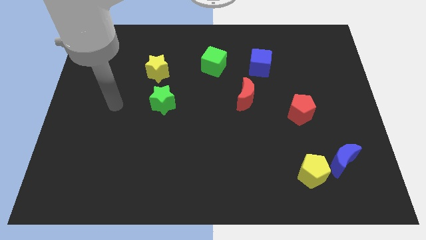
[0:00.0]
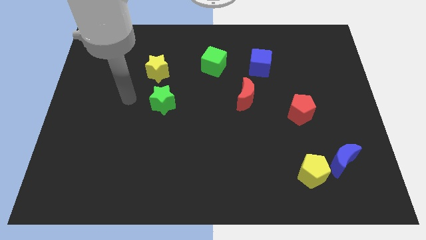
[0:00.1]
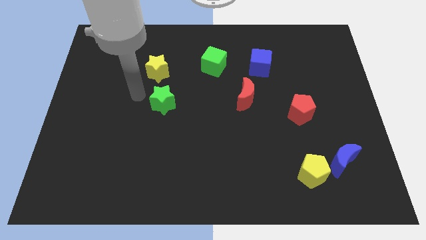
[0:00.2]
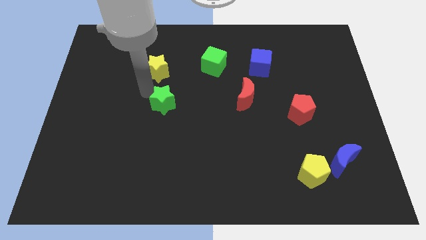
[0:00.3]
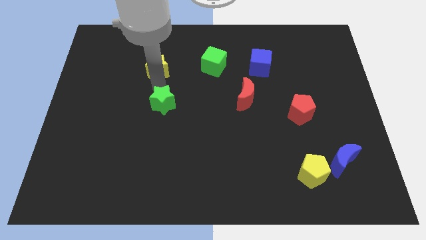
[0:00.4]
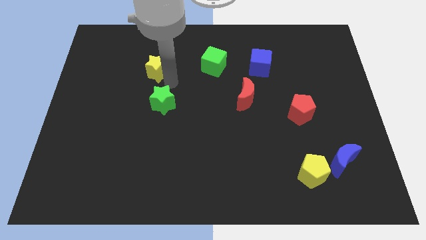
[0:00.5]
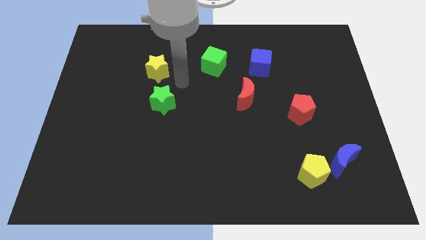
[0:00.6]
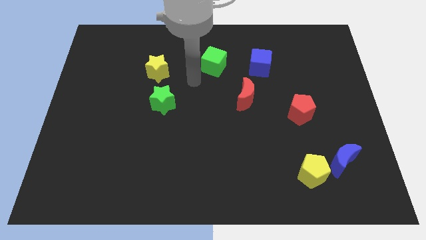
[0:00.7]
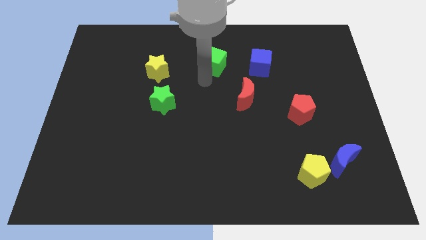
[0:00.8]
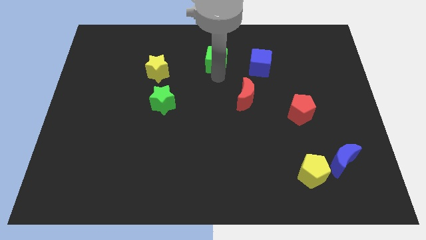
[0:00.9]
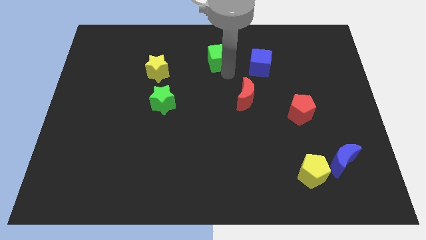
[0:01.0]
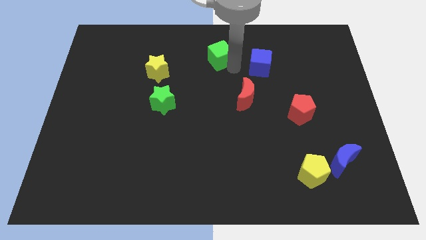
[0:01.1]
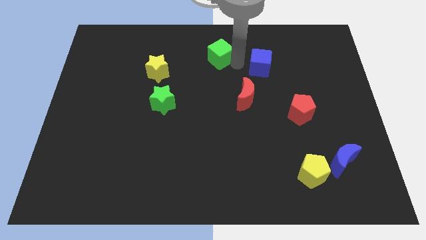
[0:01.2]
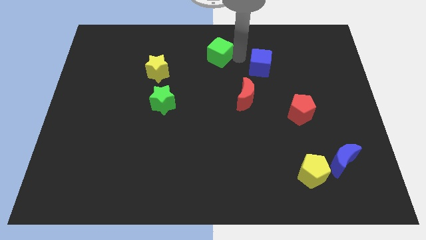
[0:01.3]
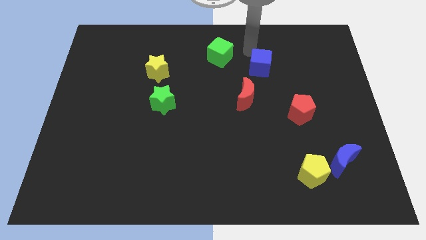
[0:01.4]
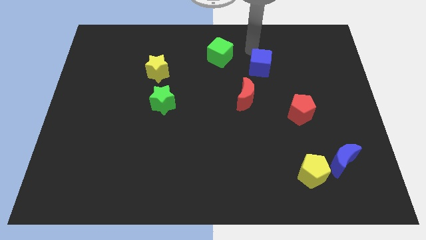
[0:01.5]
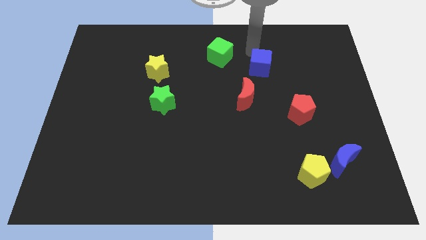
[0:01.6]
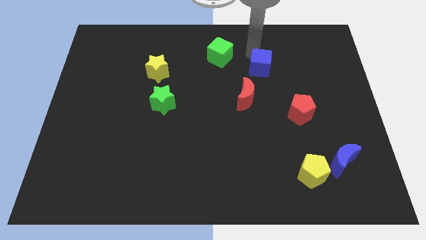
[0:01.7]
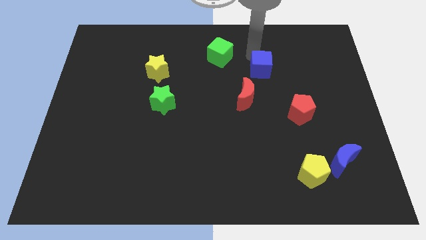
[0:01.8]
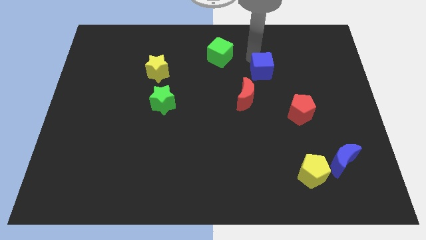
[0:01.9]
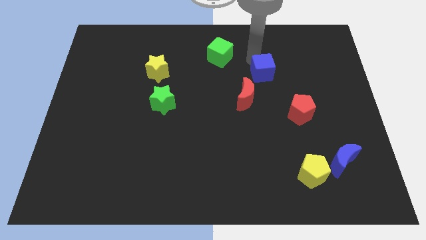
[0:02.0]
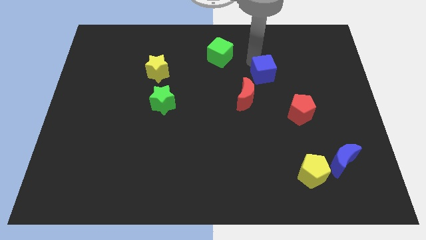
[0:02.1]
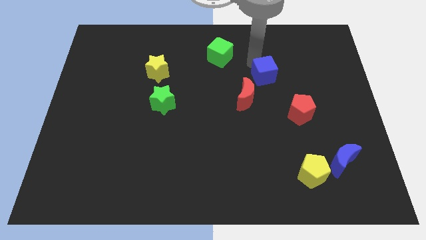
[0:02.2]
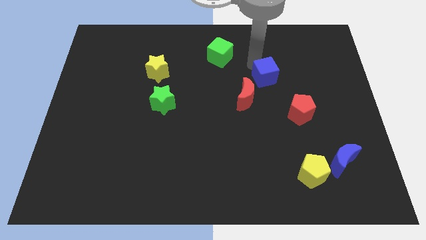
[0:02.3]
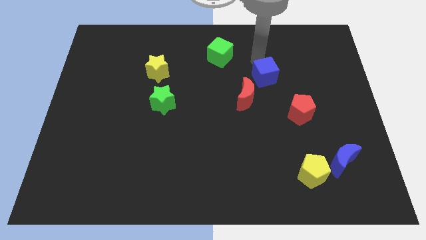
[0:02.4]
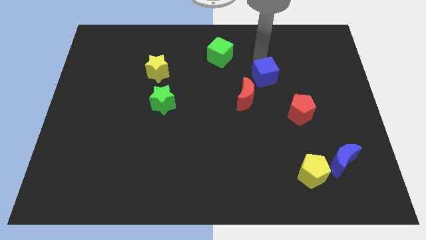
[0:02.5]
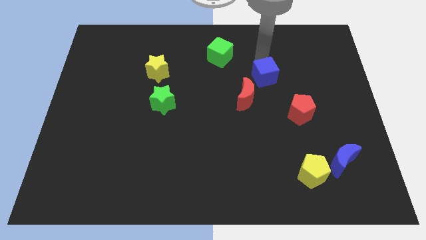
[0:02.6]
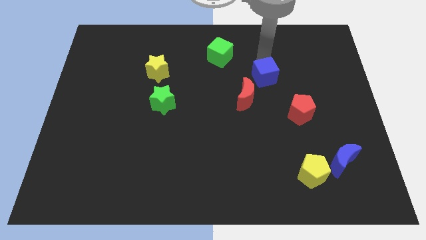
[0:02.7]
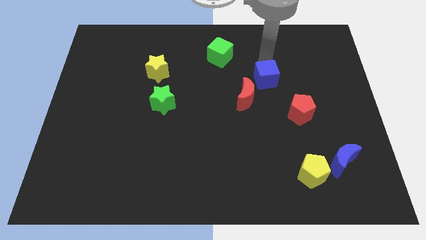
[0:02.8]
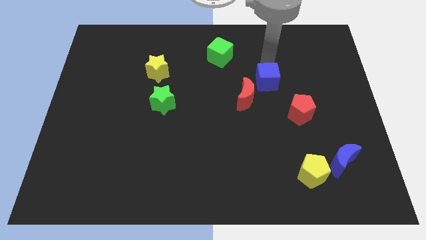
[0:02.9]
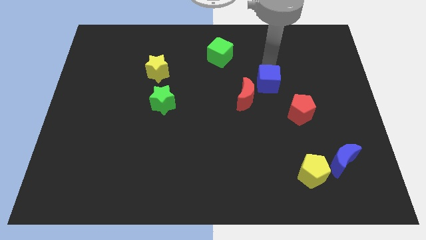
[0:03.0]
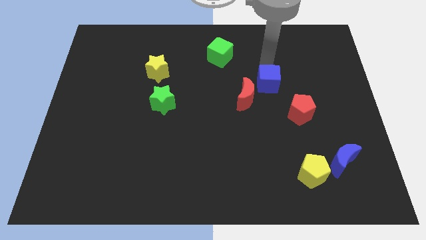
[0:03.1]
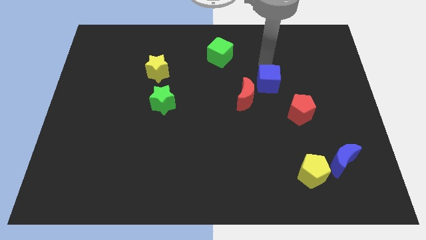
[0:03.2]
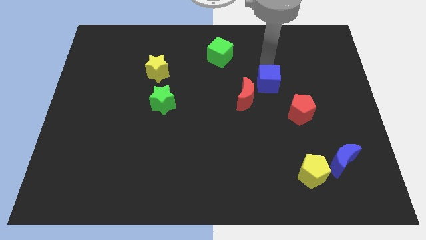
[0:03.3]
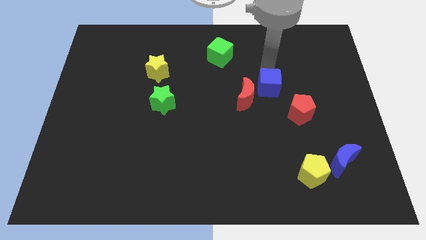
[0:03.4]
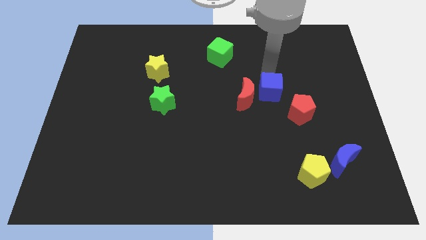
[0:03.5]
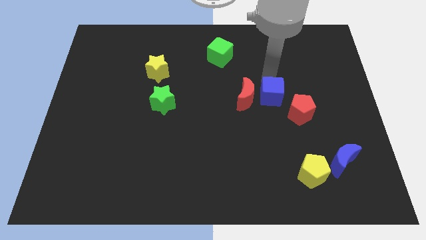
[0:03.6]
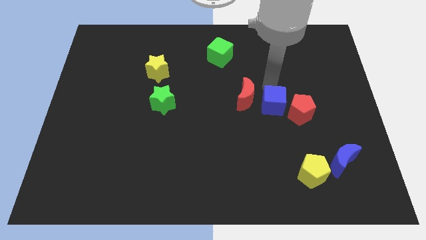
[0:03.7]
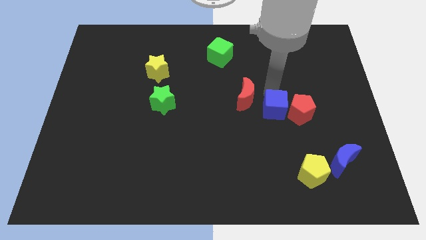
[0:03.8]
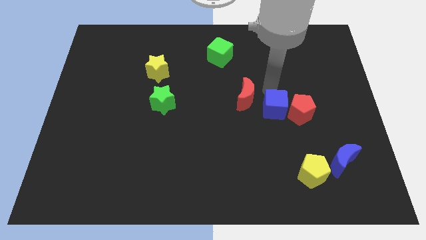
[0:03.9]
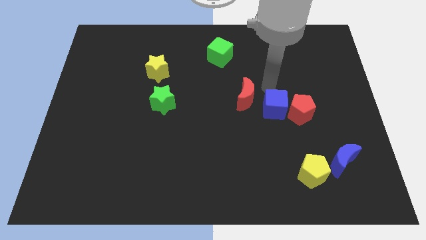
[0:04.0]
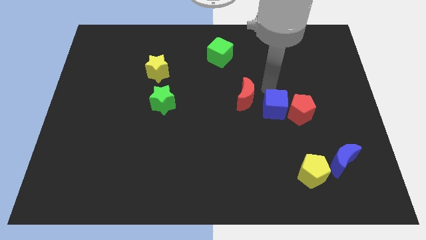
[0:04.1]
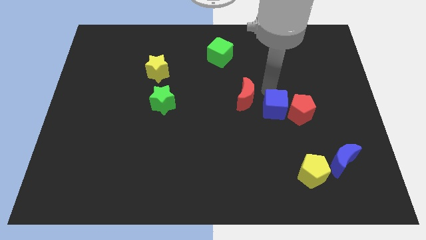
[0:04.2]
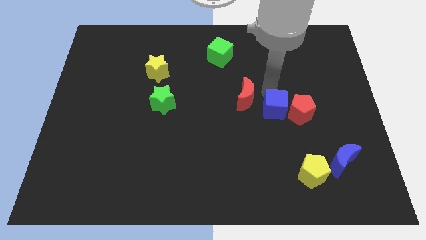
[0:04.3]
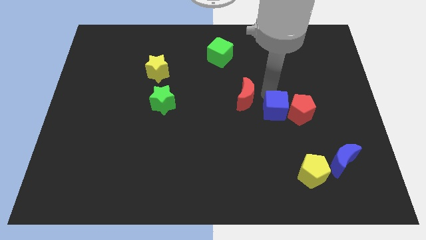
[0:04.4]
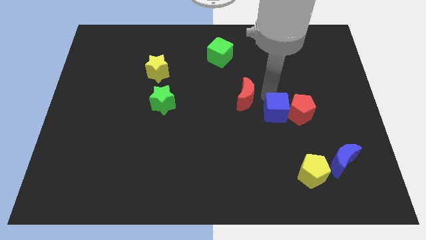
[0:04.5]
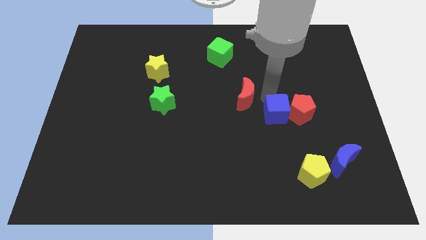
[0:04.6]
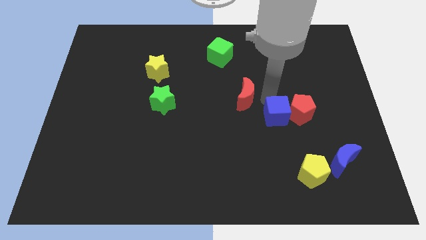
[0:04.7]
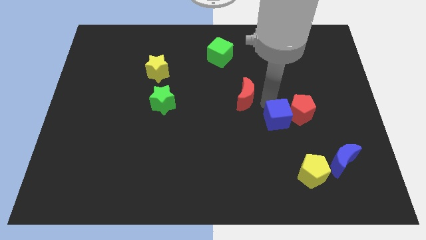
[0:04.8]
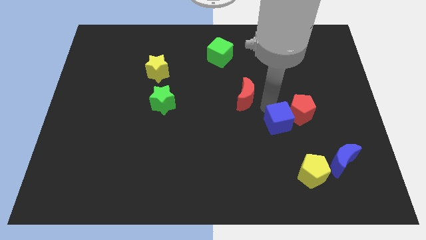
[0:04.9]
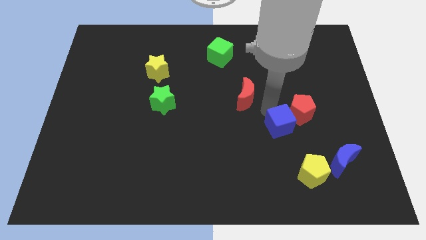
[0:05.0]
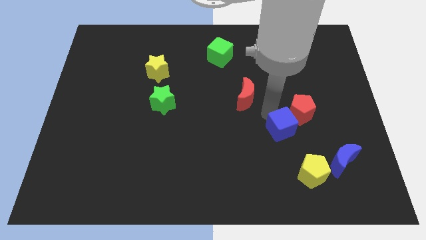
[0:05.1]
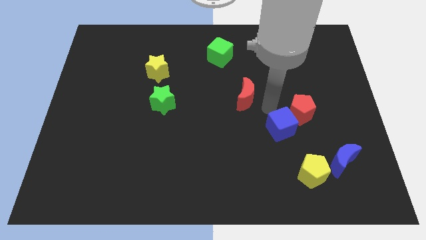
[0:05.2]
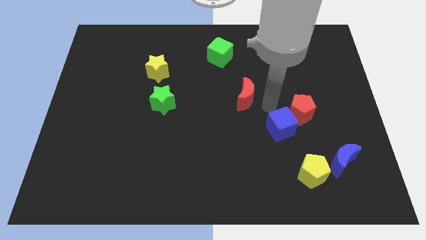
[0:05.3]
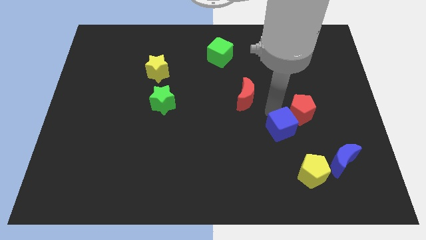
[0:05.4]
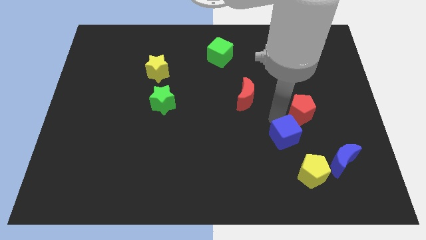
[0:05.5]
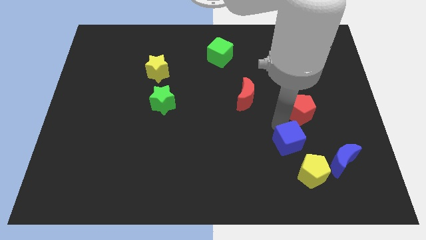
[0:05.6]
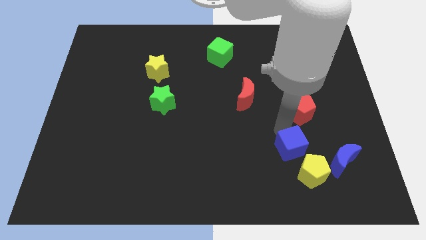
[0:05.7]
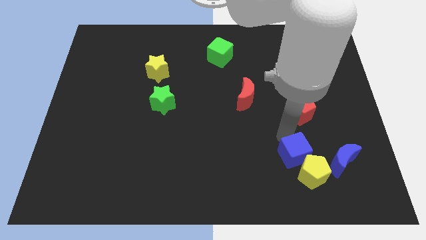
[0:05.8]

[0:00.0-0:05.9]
put the blue cube next to the yellow pentagon

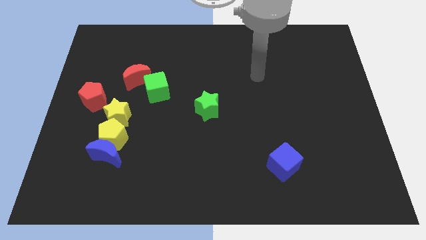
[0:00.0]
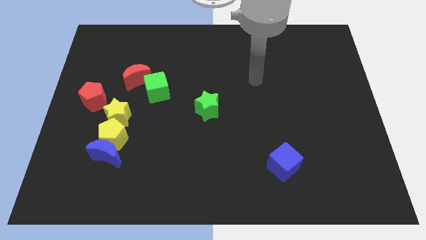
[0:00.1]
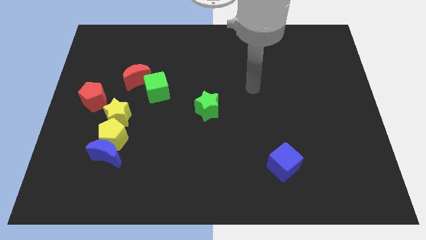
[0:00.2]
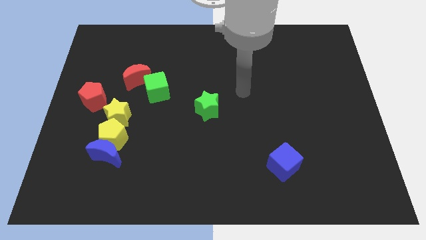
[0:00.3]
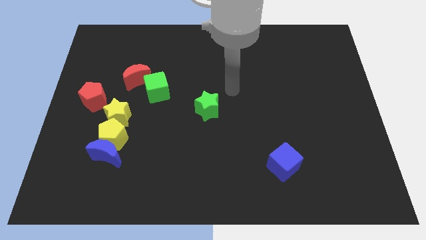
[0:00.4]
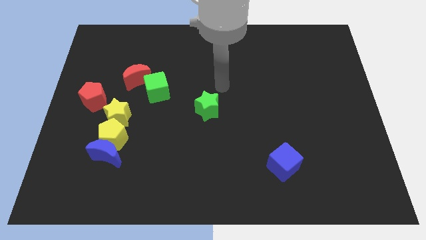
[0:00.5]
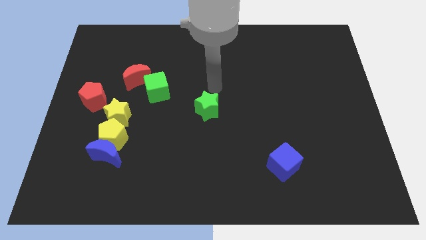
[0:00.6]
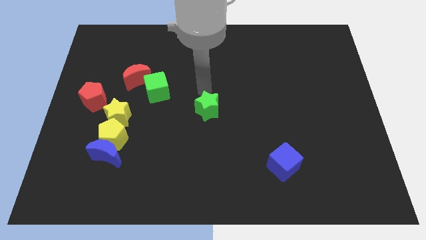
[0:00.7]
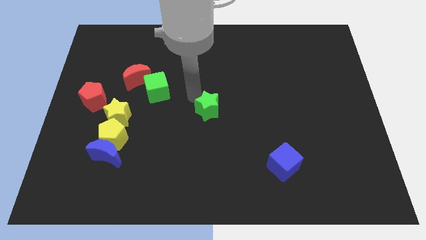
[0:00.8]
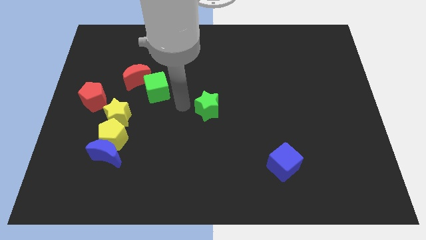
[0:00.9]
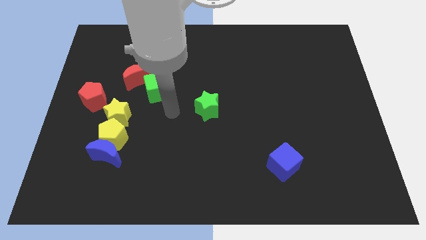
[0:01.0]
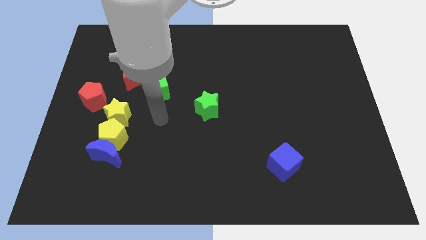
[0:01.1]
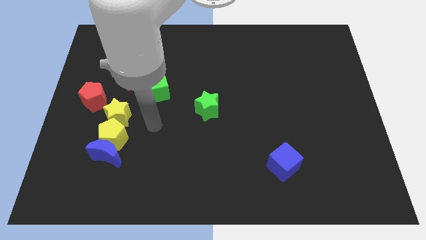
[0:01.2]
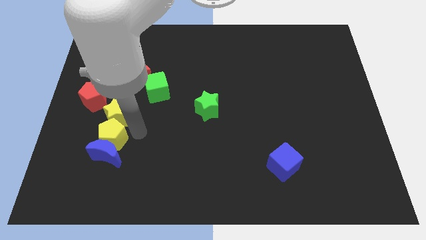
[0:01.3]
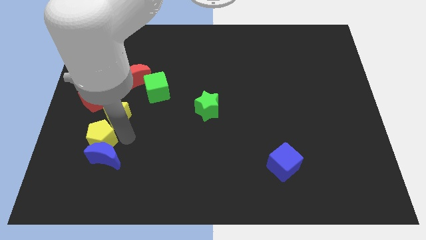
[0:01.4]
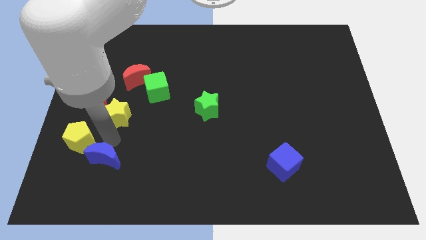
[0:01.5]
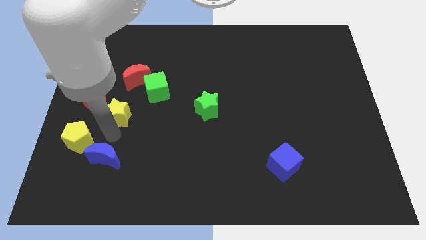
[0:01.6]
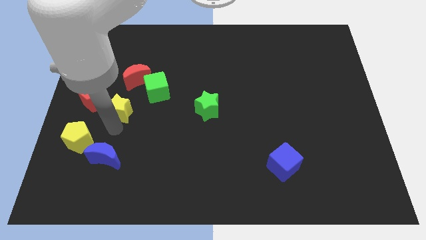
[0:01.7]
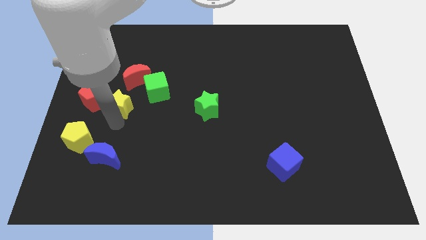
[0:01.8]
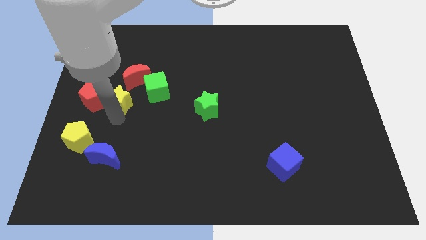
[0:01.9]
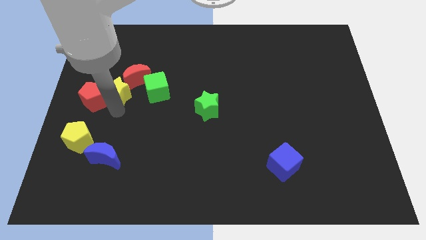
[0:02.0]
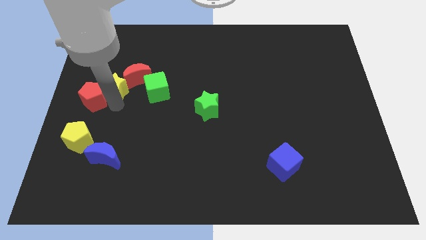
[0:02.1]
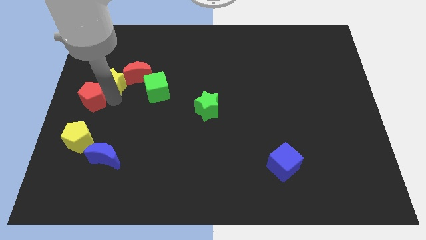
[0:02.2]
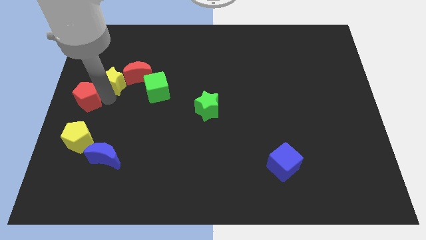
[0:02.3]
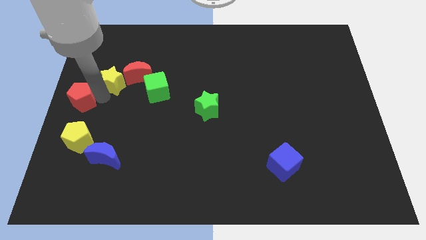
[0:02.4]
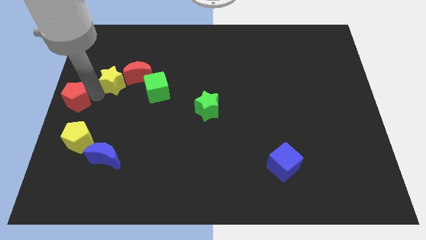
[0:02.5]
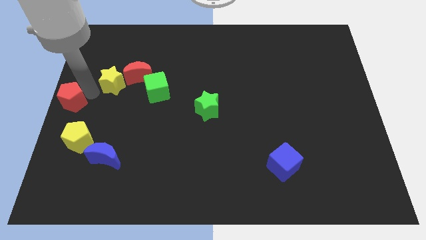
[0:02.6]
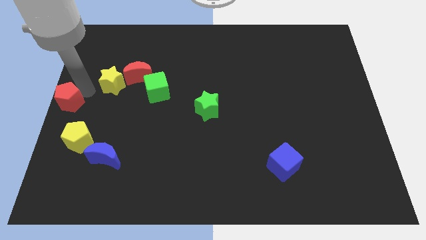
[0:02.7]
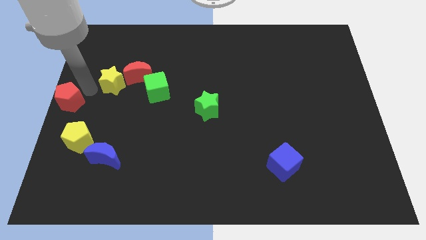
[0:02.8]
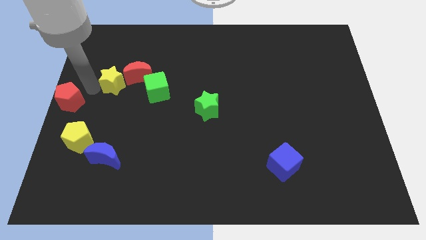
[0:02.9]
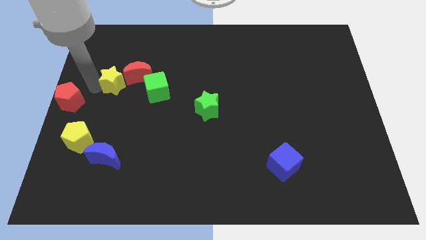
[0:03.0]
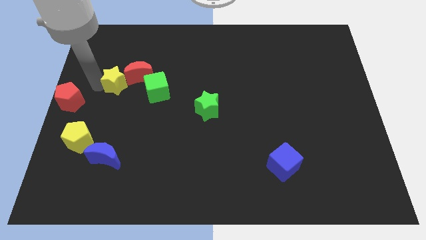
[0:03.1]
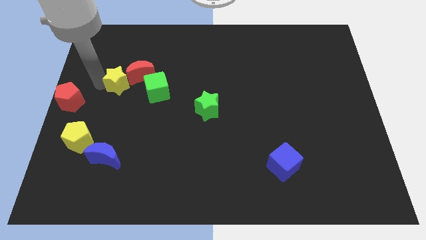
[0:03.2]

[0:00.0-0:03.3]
push the yellow star to the red moon
